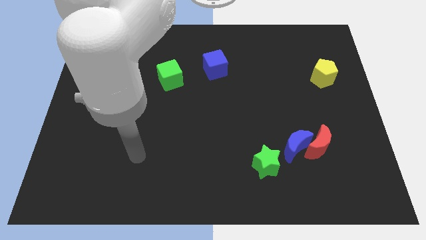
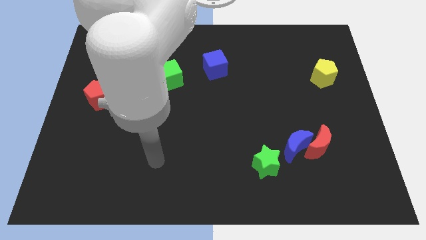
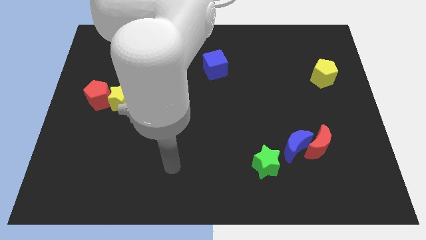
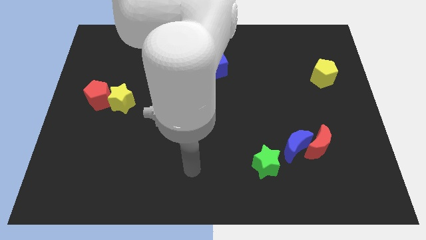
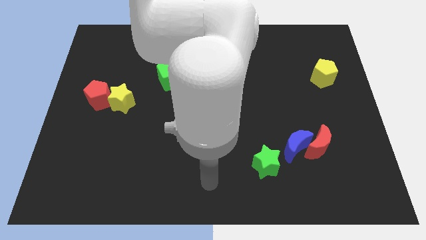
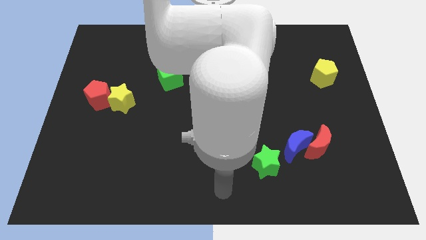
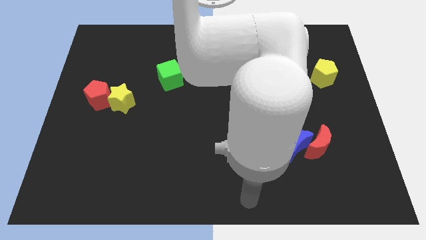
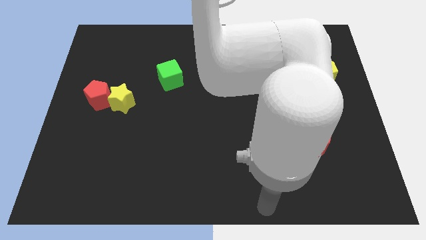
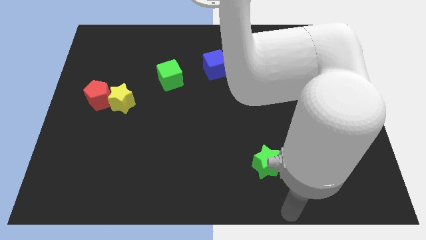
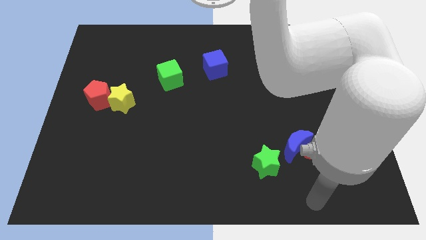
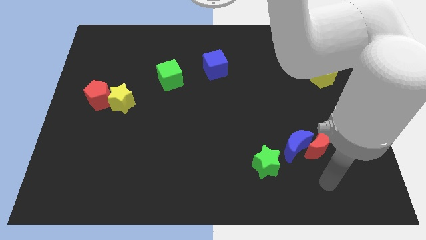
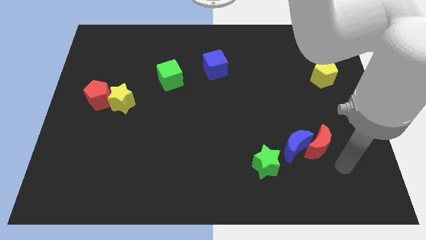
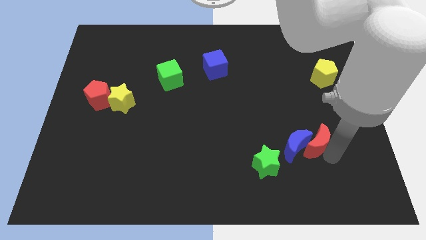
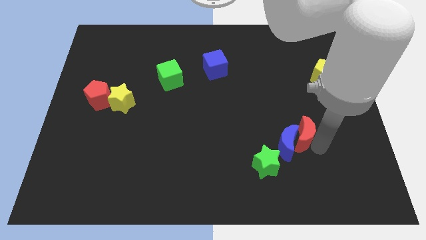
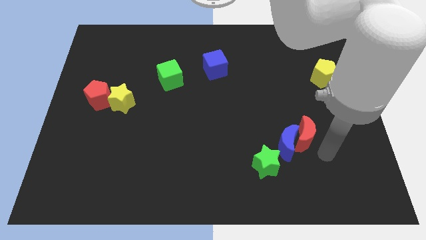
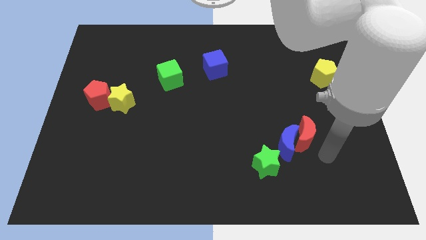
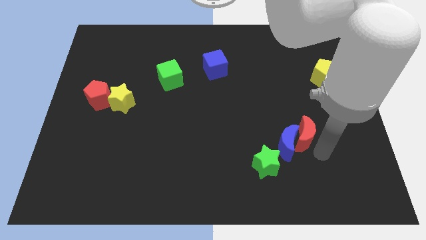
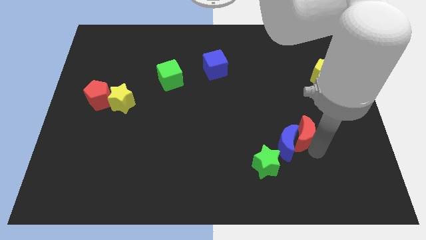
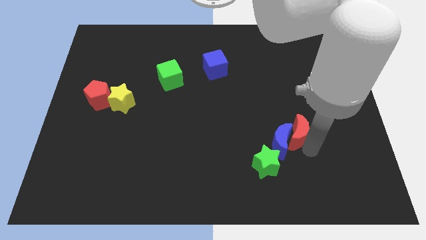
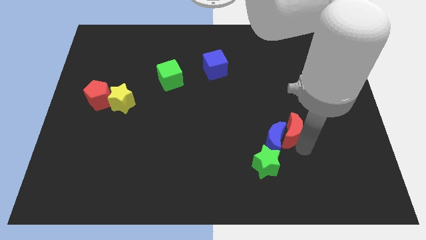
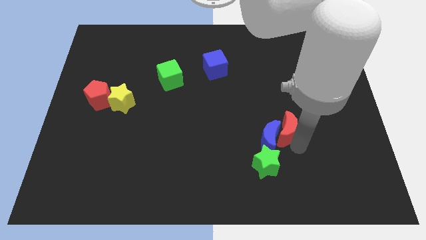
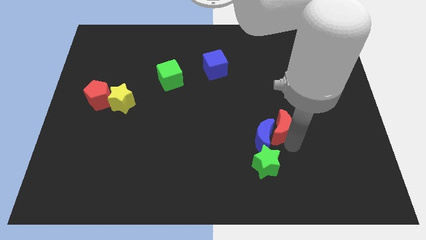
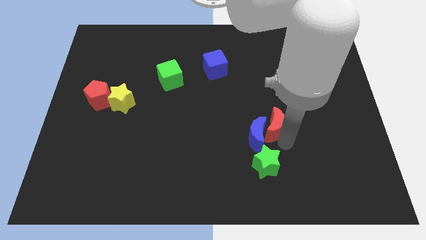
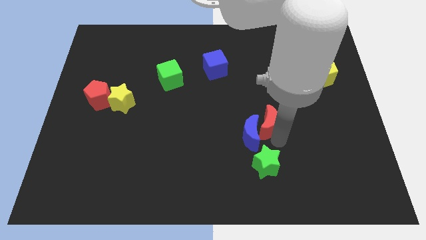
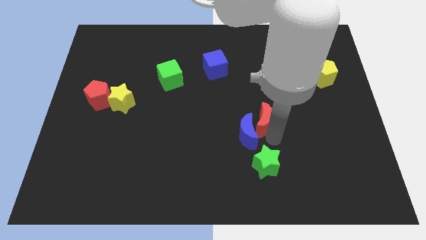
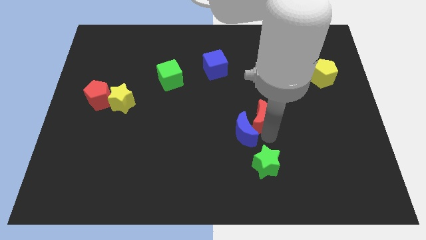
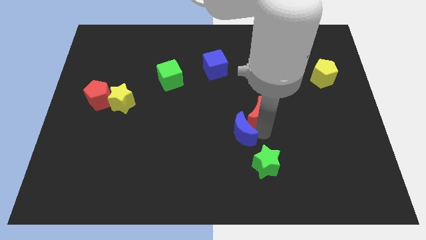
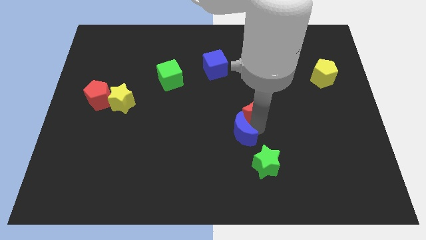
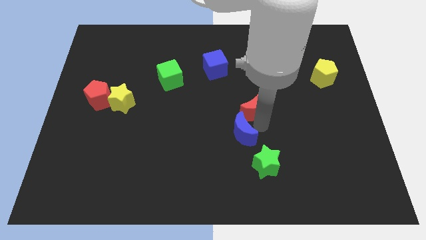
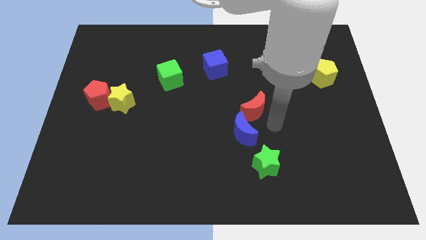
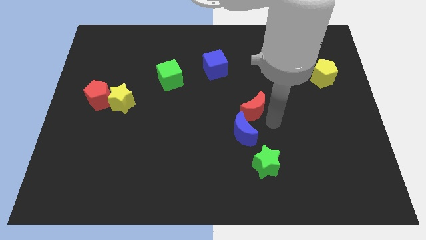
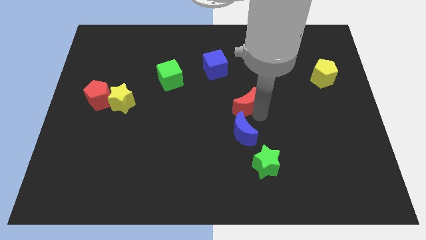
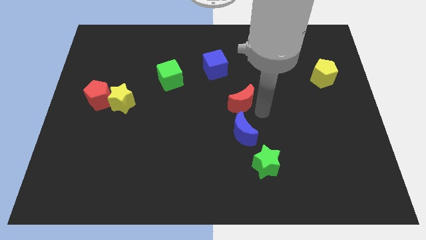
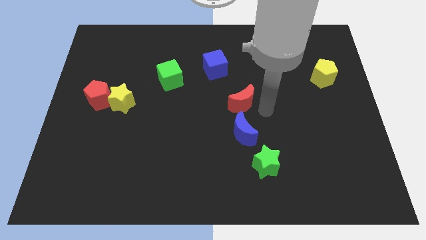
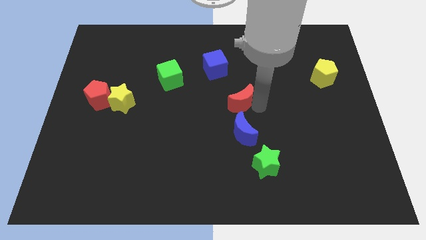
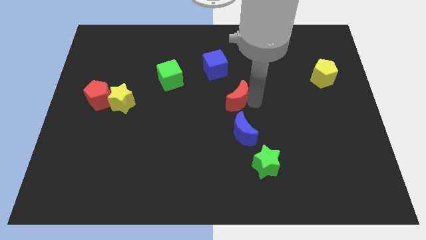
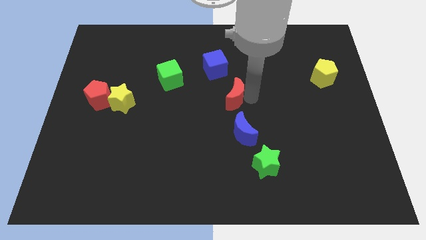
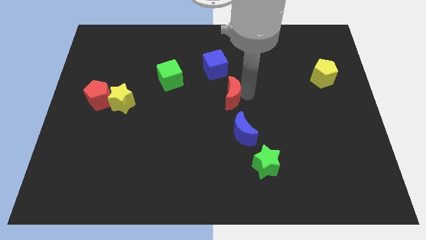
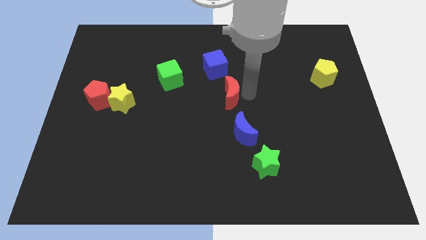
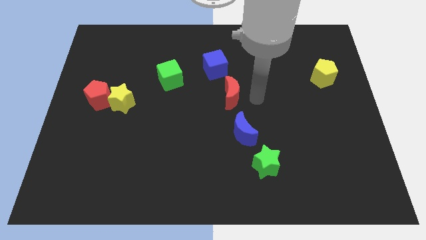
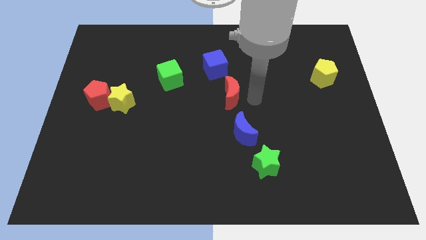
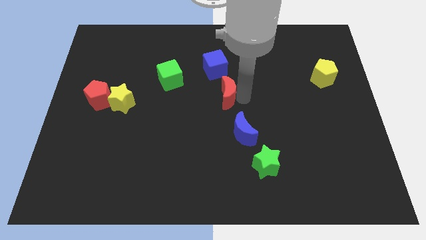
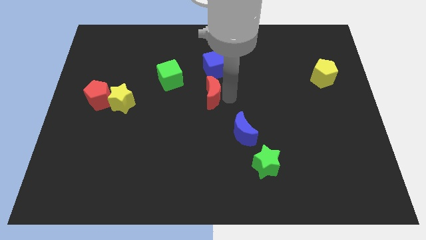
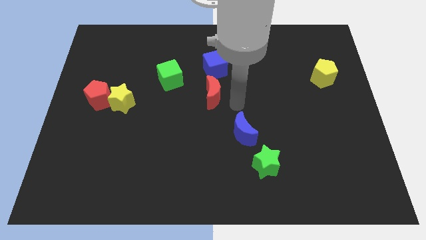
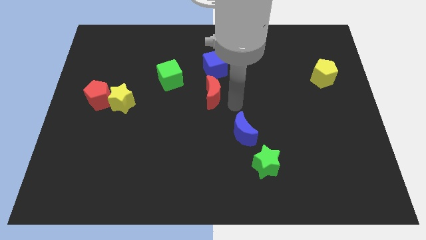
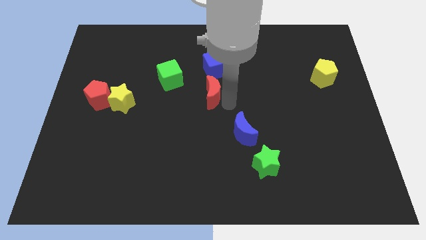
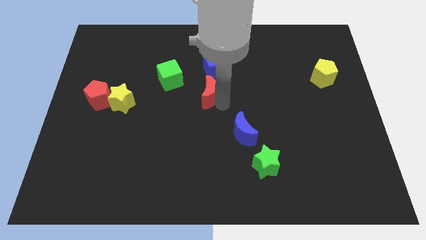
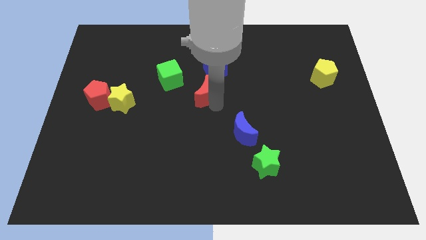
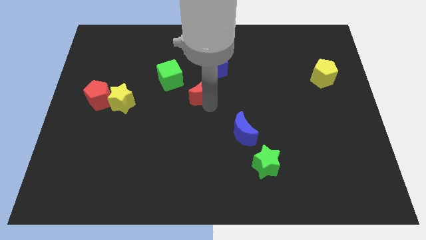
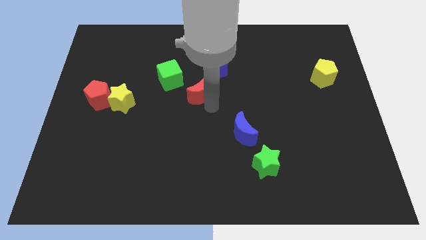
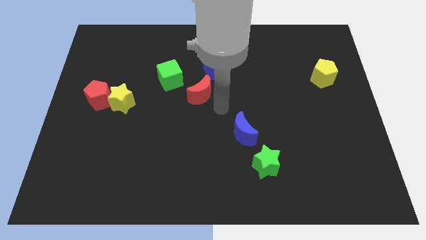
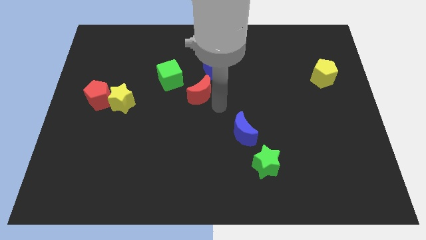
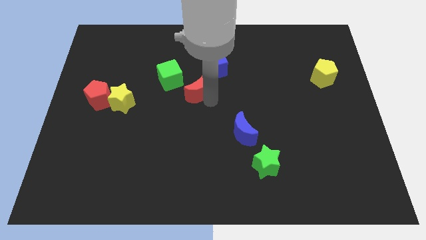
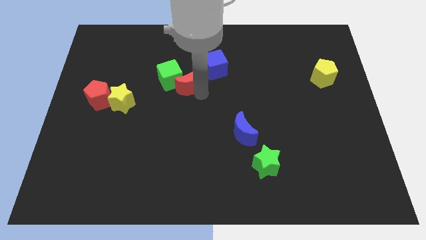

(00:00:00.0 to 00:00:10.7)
slide the red moon next to the green cube

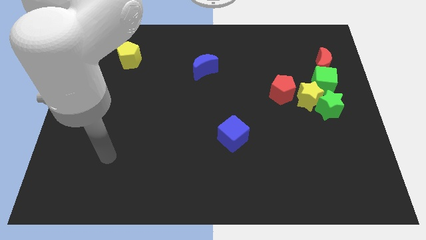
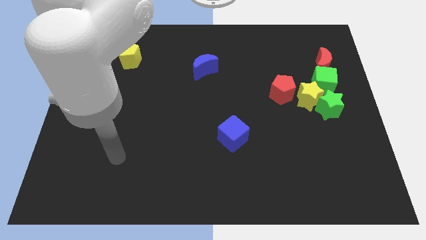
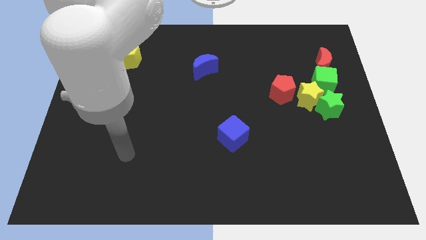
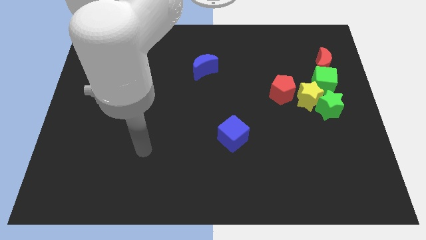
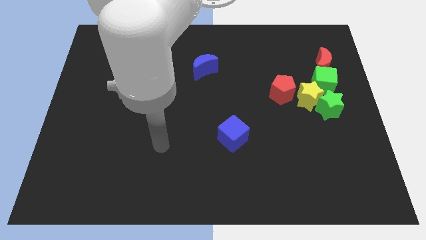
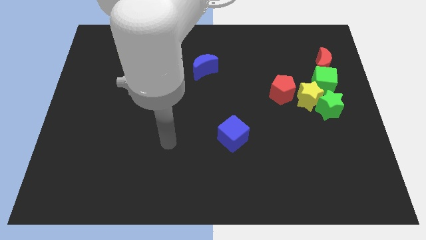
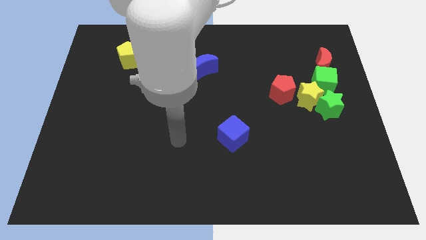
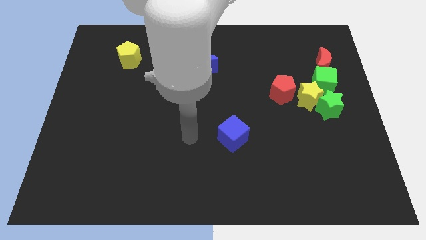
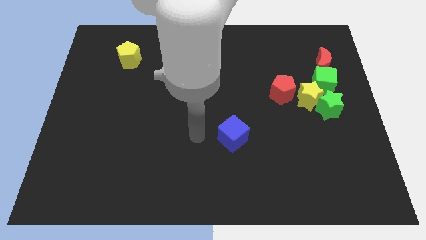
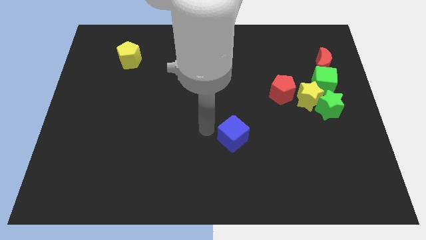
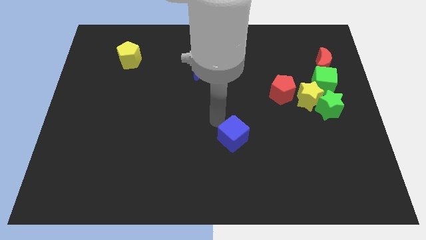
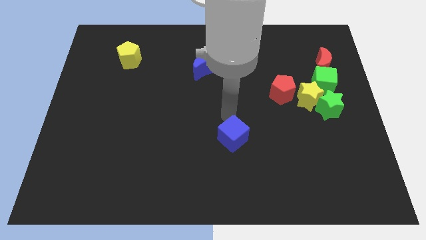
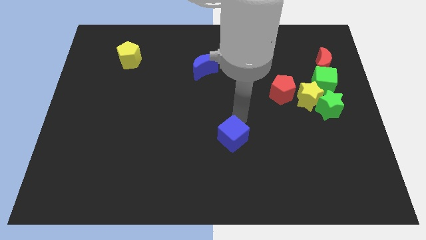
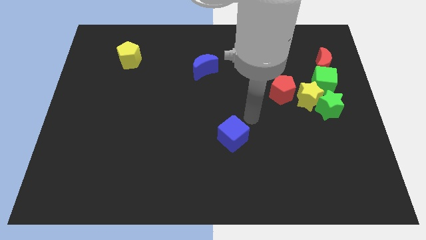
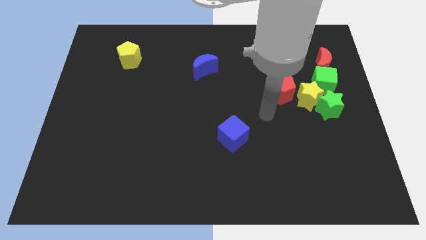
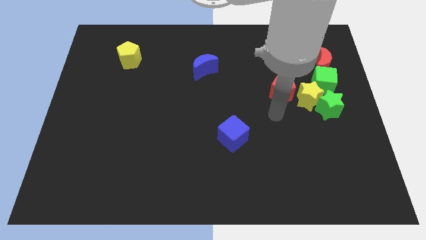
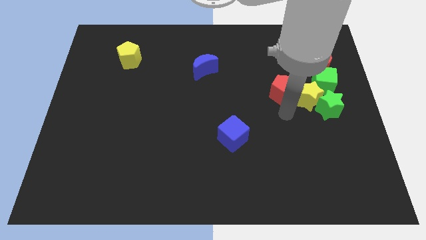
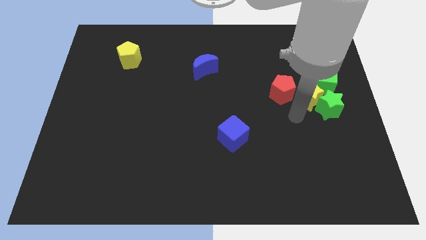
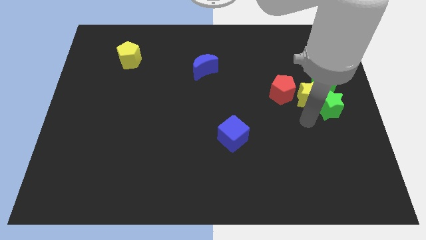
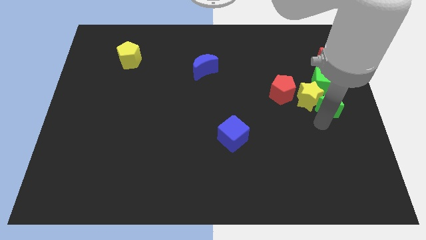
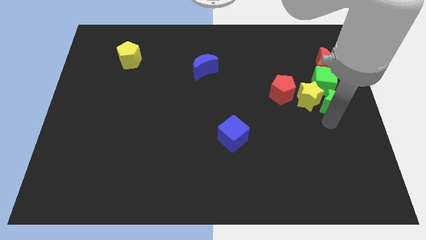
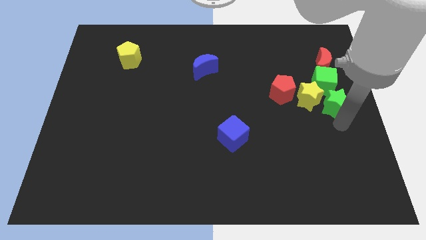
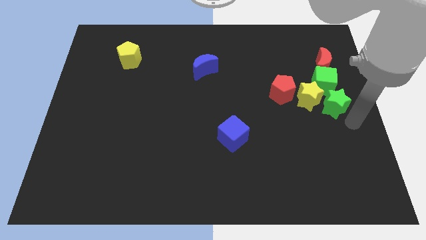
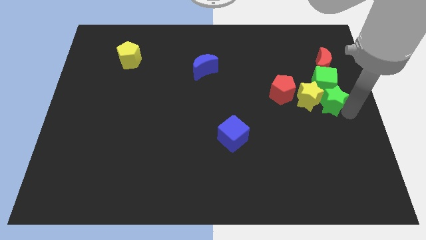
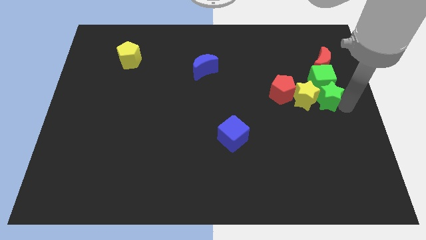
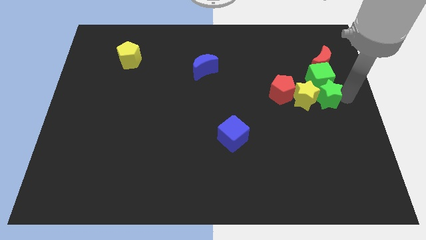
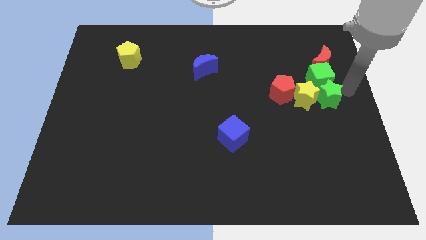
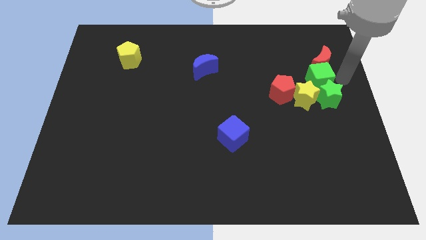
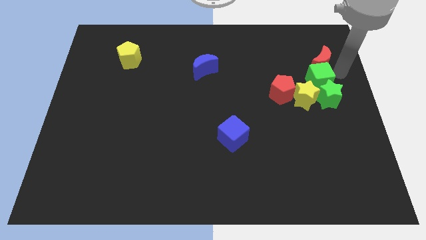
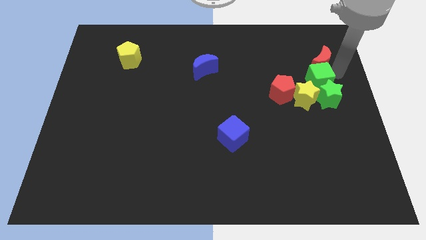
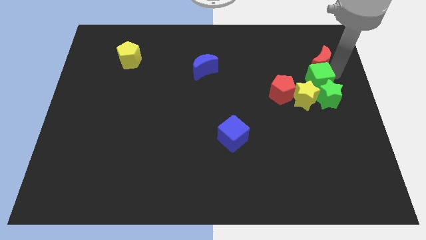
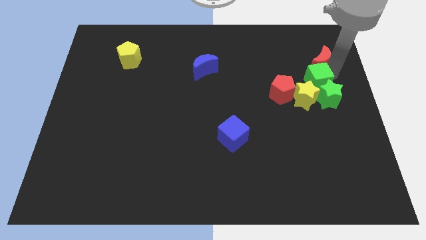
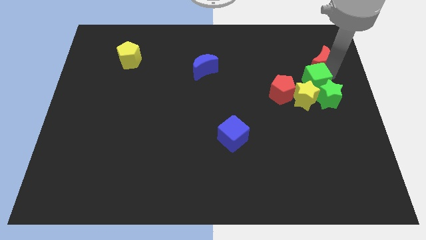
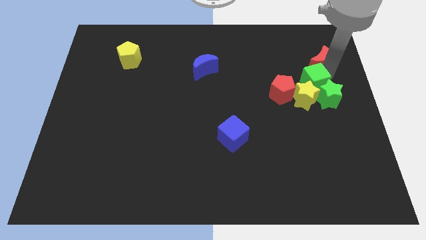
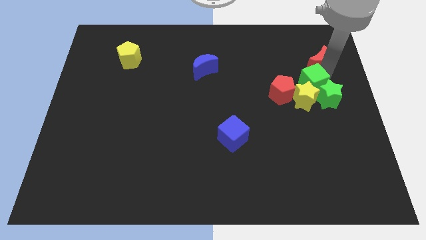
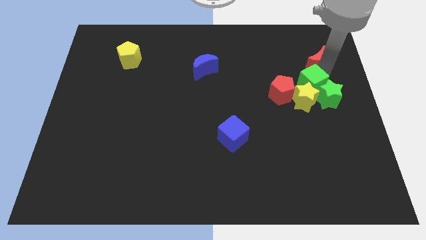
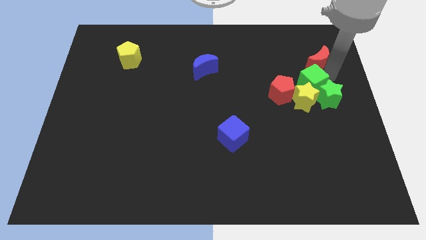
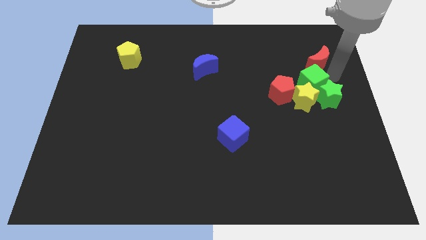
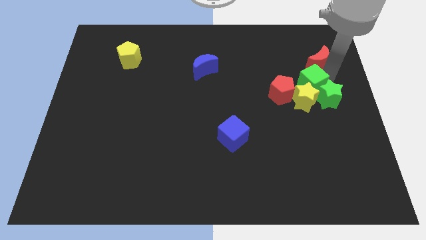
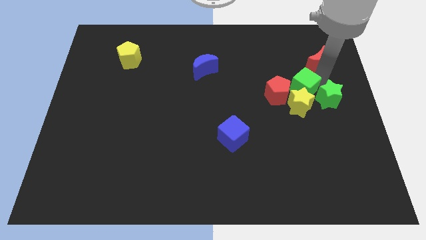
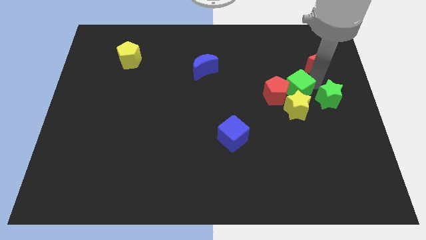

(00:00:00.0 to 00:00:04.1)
move the green cube next to the red pentagon
